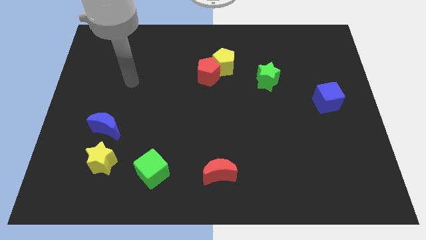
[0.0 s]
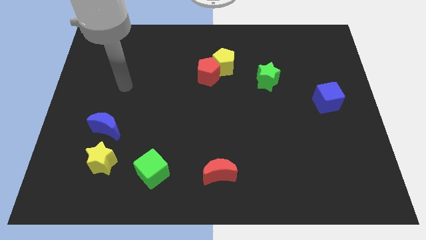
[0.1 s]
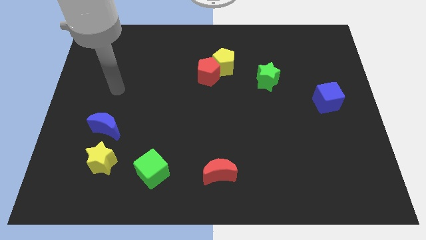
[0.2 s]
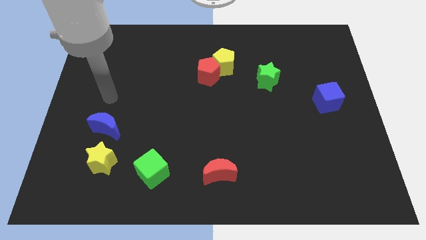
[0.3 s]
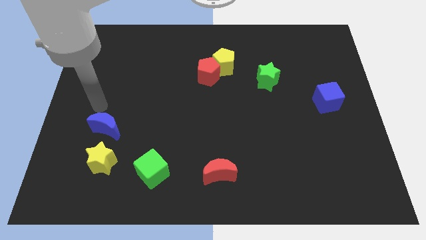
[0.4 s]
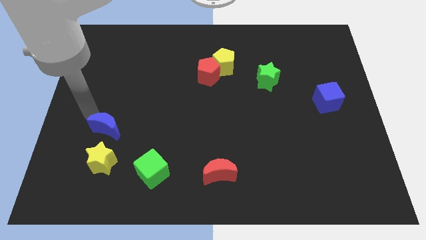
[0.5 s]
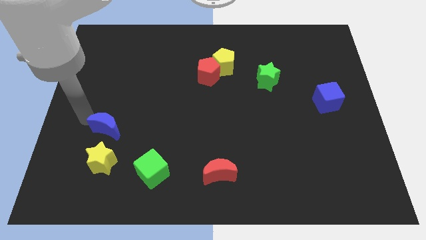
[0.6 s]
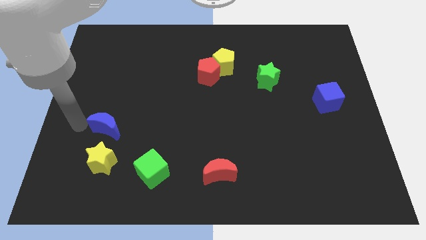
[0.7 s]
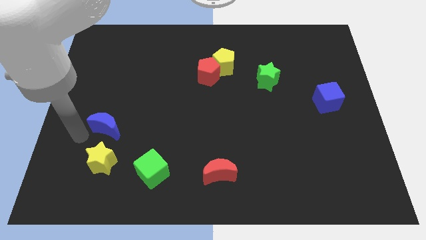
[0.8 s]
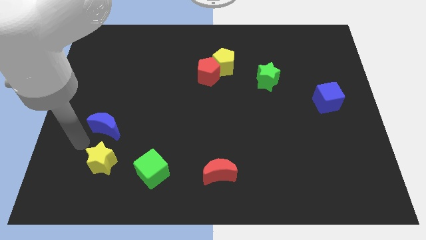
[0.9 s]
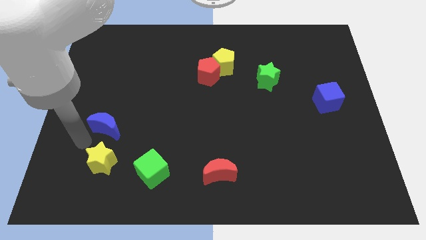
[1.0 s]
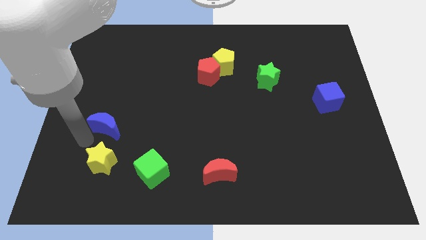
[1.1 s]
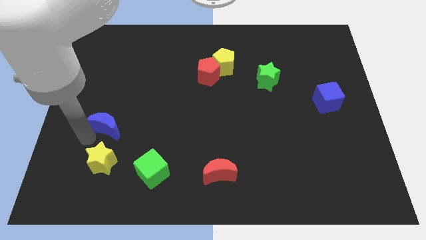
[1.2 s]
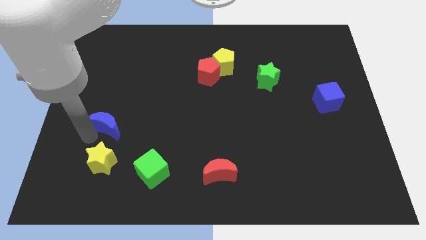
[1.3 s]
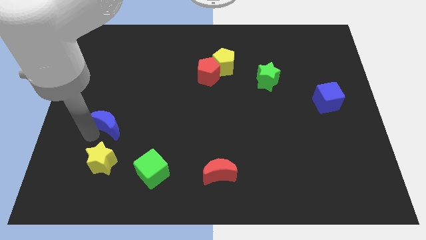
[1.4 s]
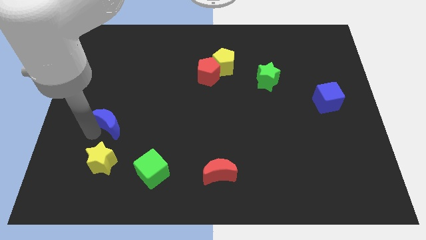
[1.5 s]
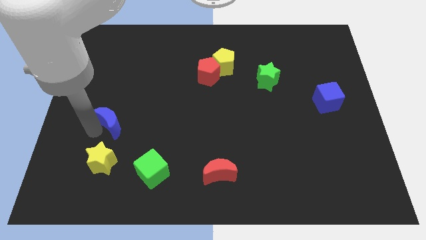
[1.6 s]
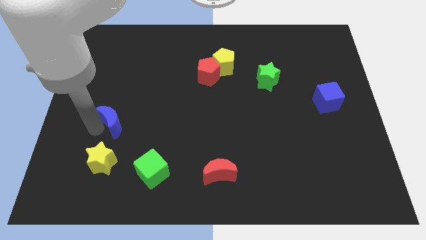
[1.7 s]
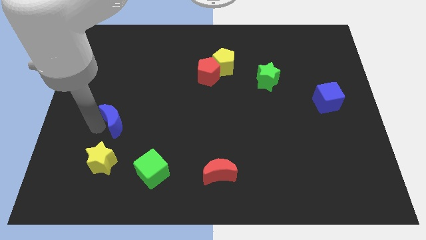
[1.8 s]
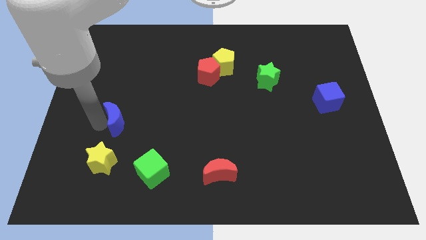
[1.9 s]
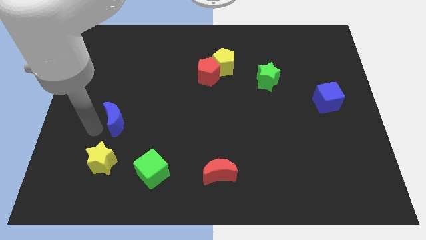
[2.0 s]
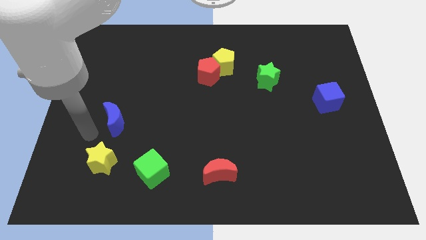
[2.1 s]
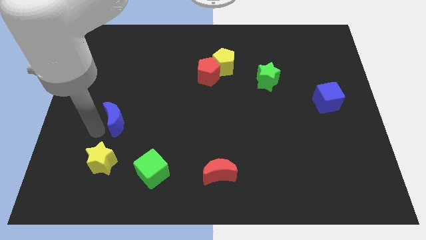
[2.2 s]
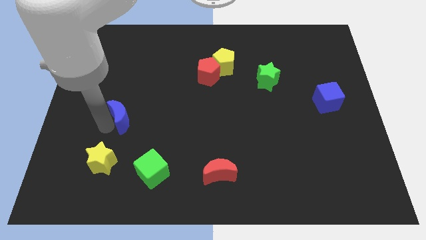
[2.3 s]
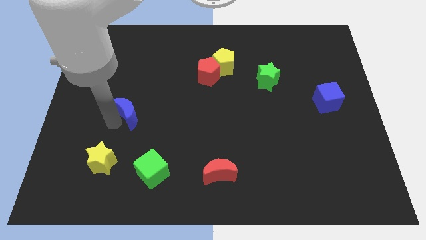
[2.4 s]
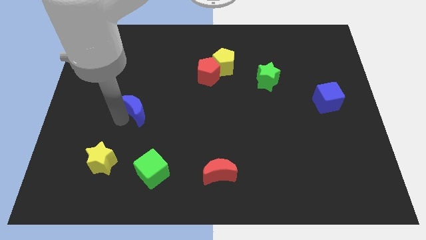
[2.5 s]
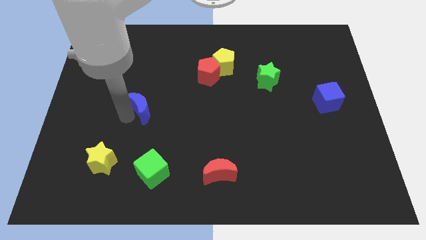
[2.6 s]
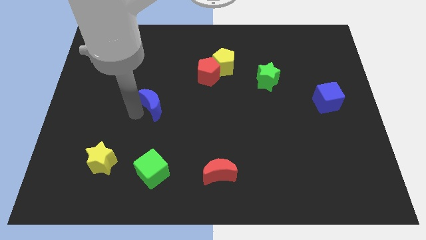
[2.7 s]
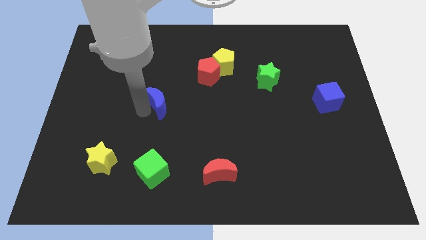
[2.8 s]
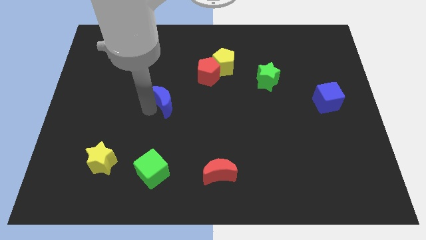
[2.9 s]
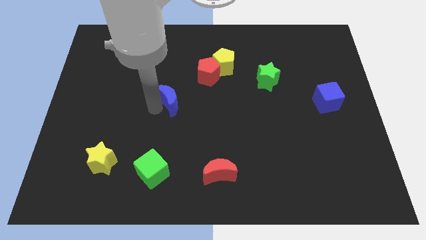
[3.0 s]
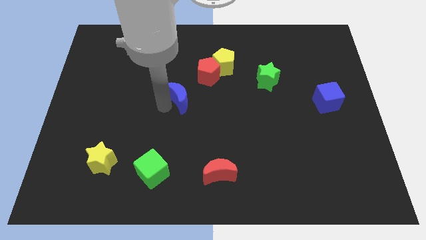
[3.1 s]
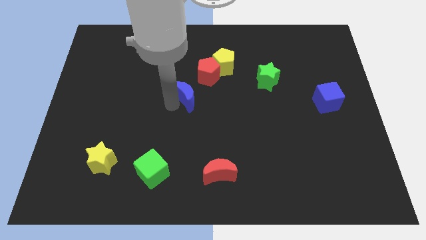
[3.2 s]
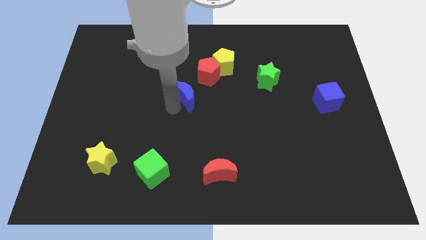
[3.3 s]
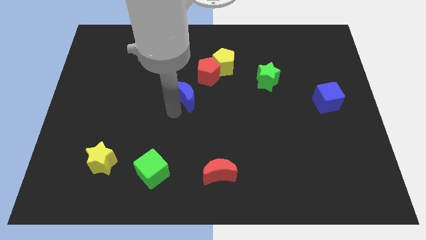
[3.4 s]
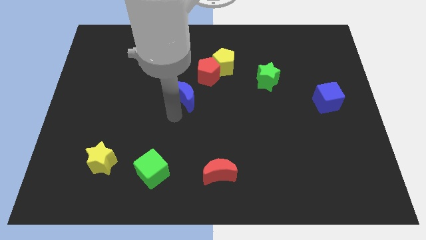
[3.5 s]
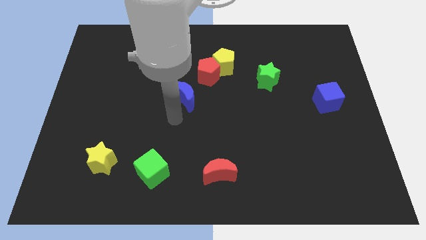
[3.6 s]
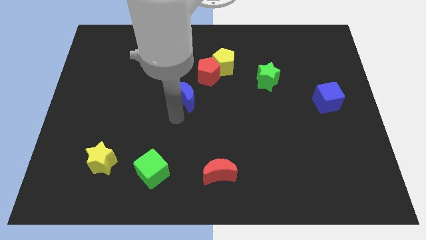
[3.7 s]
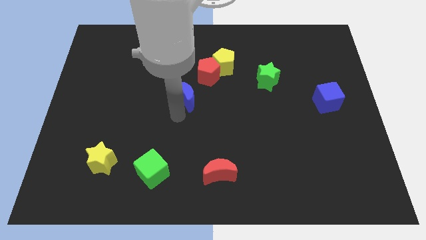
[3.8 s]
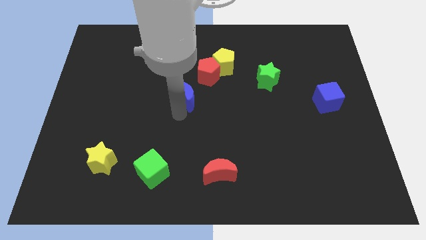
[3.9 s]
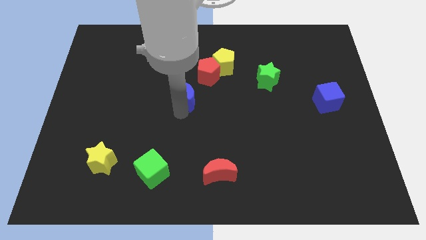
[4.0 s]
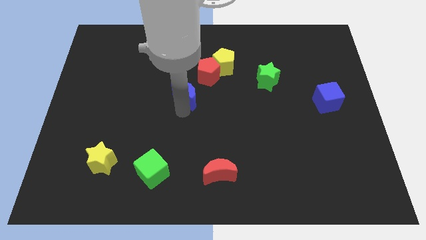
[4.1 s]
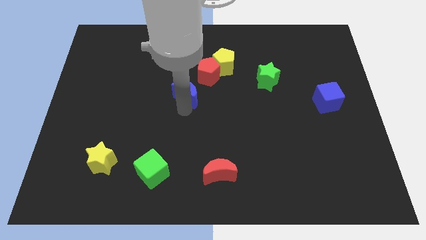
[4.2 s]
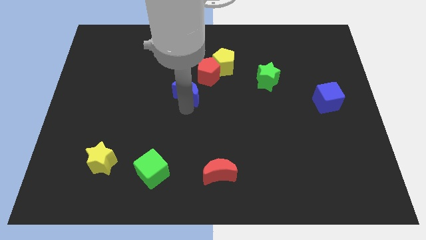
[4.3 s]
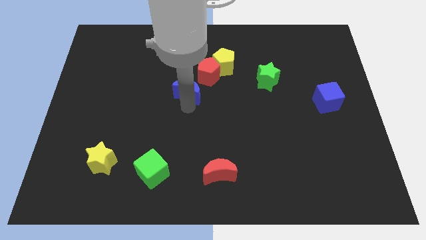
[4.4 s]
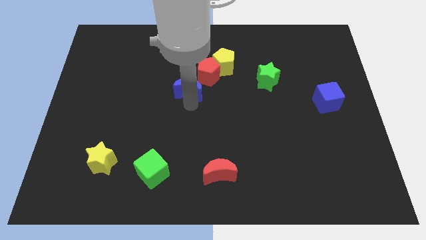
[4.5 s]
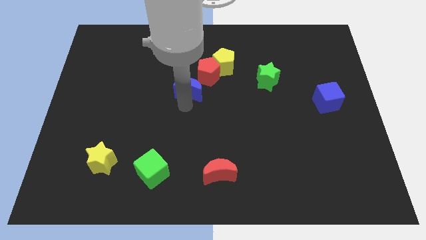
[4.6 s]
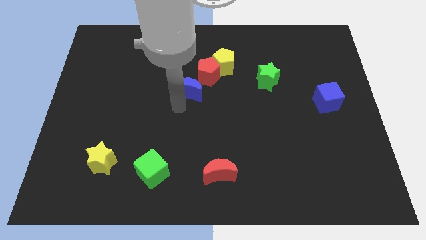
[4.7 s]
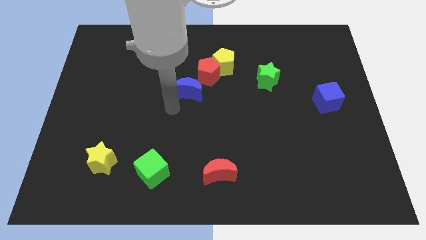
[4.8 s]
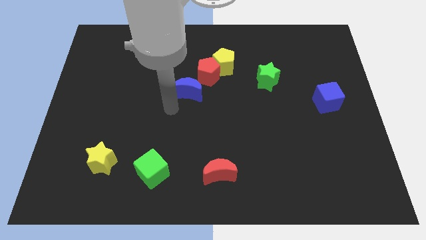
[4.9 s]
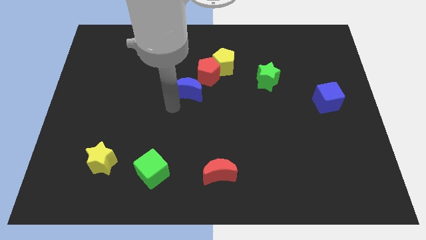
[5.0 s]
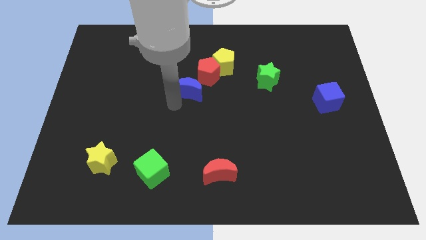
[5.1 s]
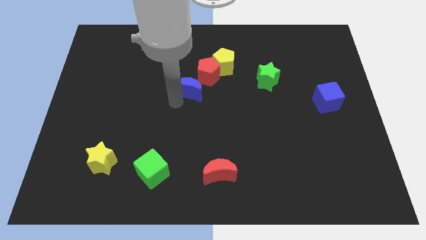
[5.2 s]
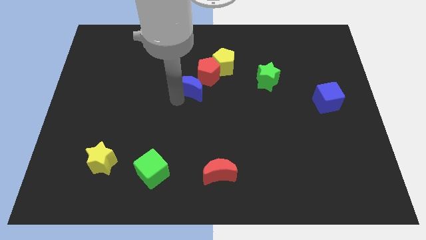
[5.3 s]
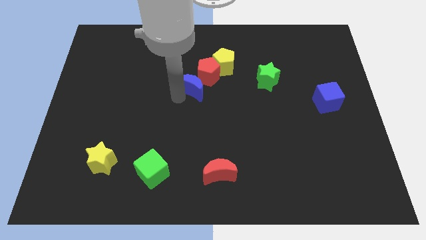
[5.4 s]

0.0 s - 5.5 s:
push the blue moon towards the red pentagon

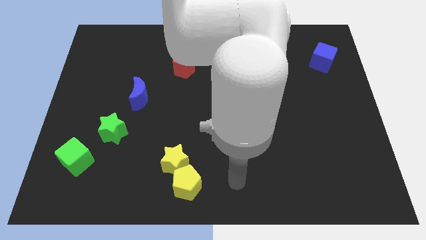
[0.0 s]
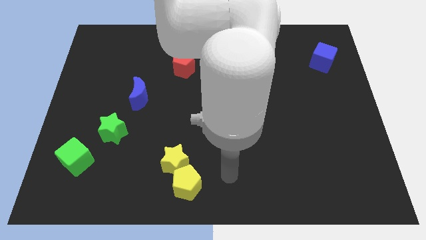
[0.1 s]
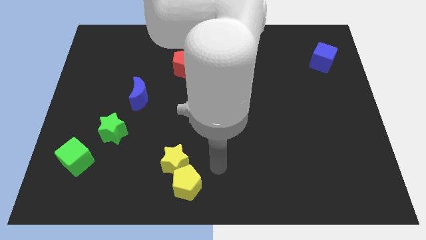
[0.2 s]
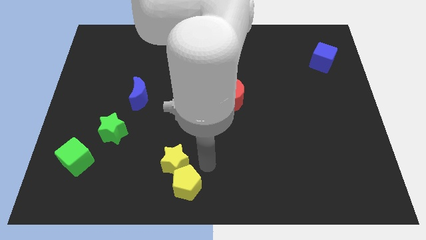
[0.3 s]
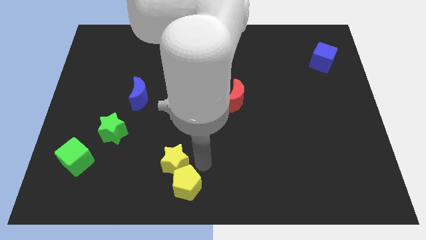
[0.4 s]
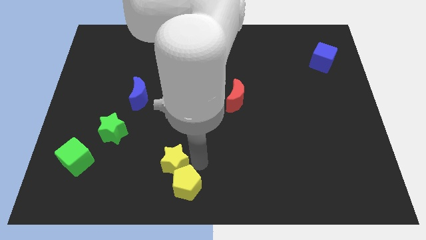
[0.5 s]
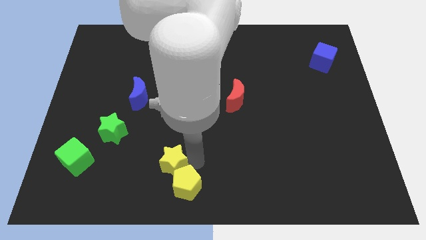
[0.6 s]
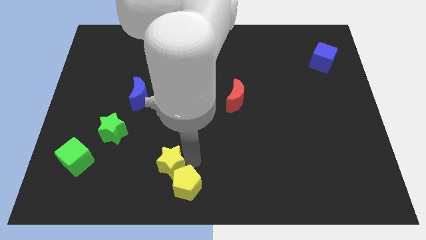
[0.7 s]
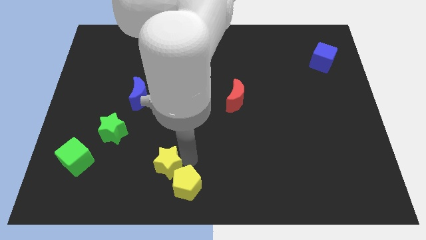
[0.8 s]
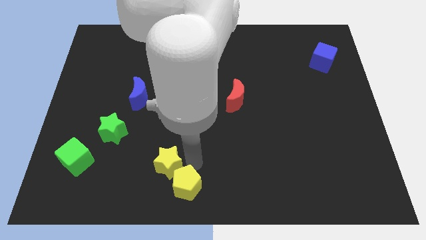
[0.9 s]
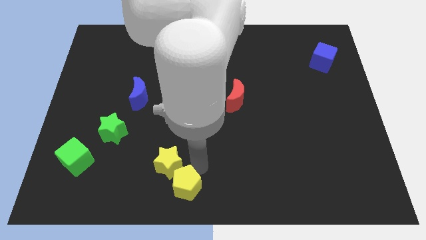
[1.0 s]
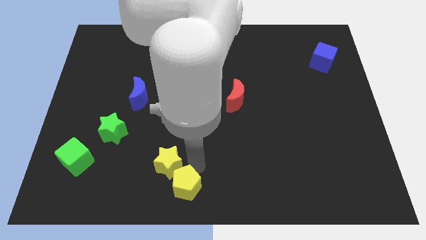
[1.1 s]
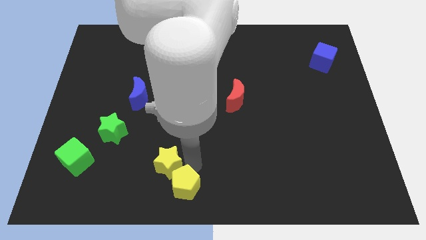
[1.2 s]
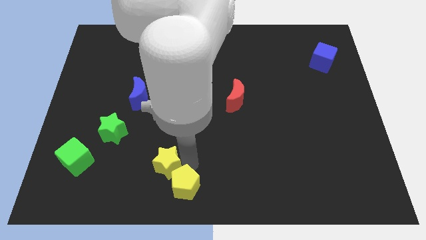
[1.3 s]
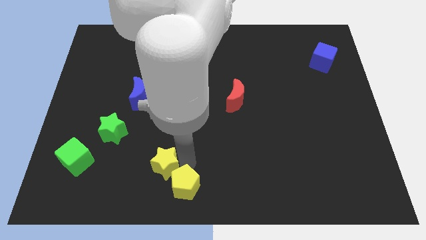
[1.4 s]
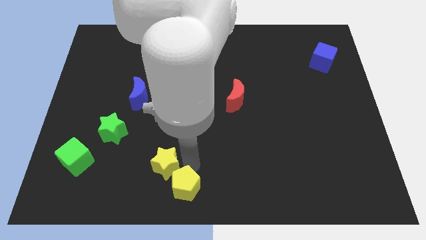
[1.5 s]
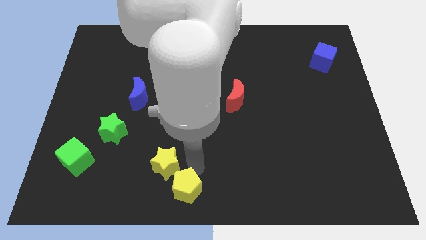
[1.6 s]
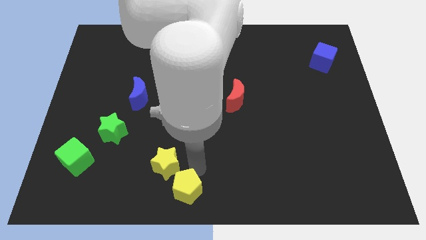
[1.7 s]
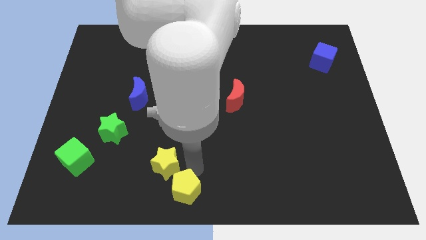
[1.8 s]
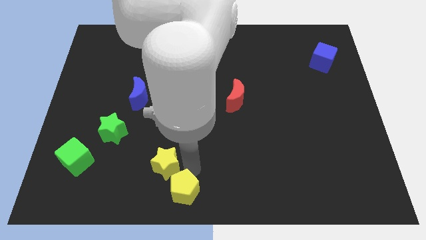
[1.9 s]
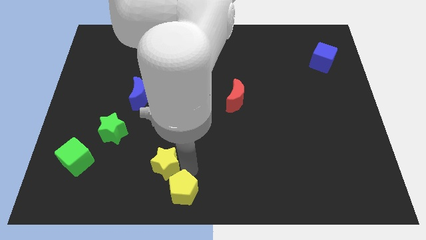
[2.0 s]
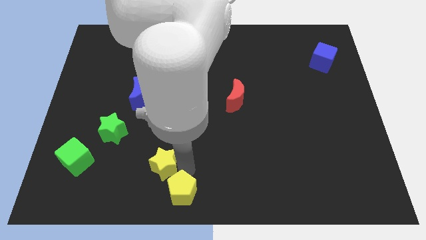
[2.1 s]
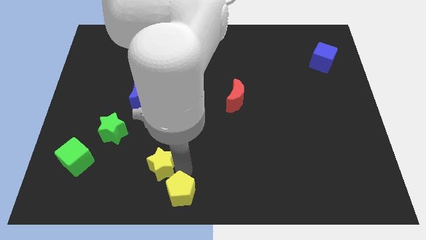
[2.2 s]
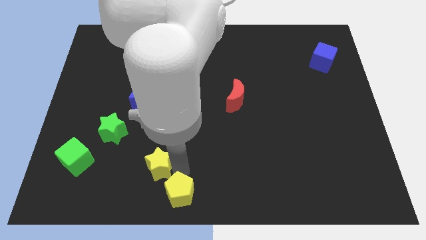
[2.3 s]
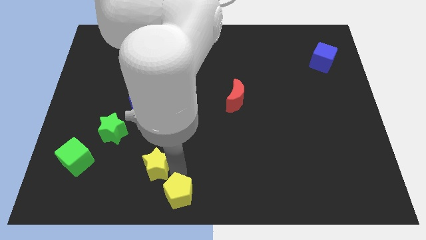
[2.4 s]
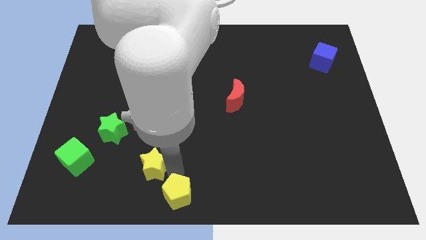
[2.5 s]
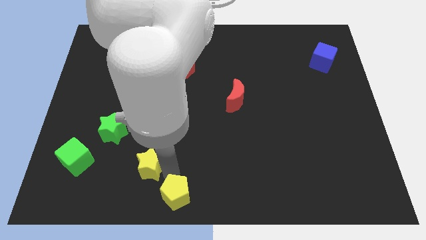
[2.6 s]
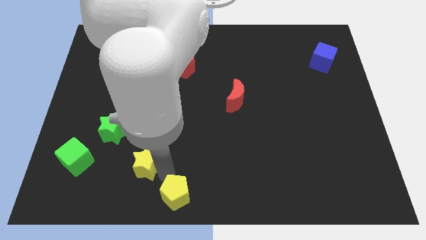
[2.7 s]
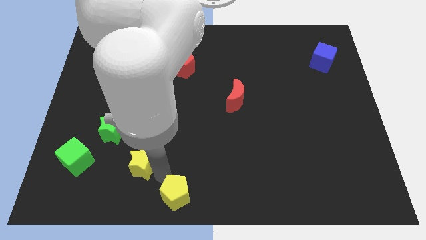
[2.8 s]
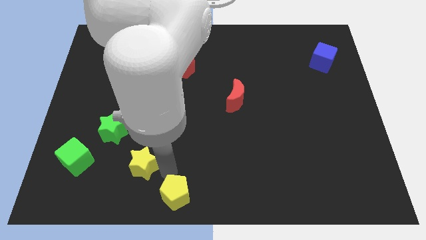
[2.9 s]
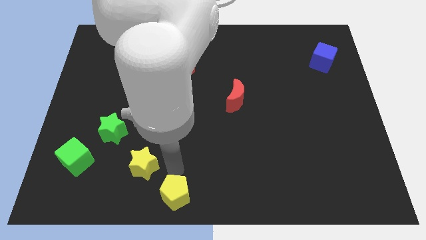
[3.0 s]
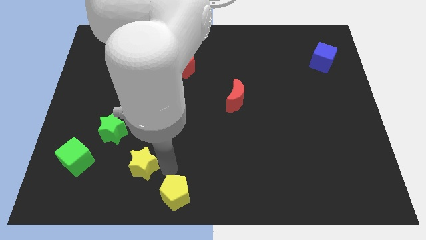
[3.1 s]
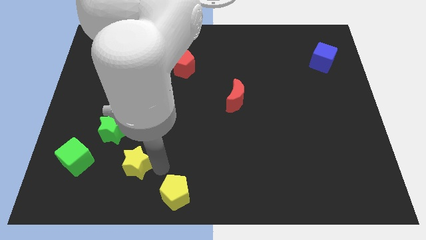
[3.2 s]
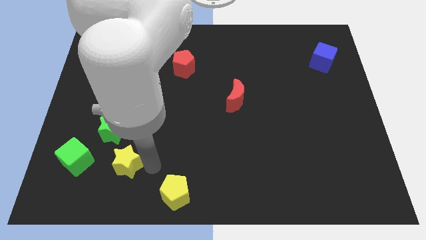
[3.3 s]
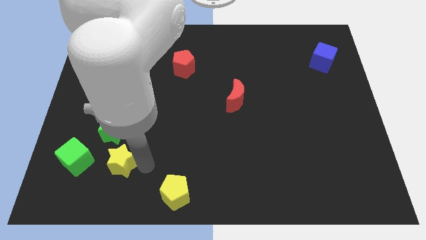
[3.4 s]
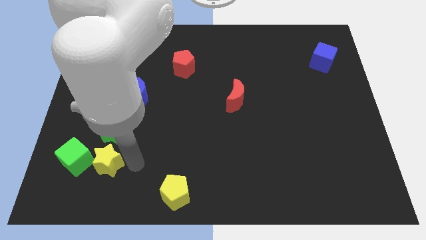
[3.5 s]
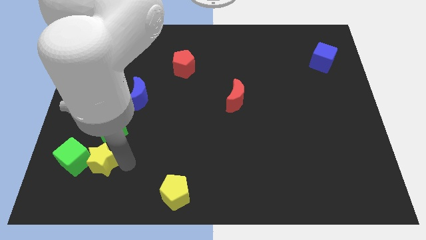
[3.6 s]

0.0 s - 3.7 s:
slide the yellow star to the green cube
